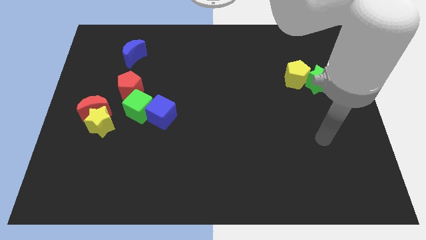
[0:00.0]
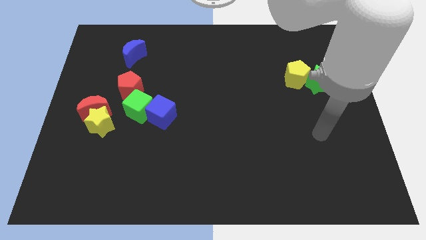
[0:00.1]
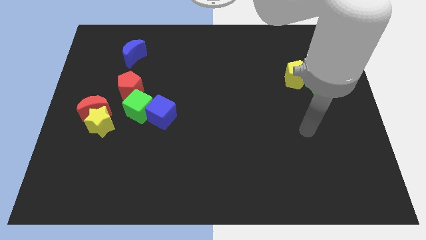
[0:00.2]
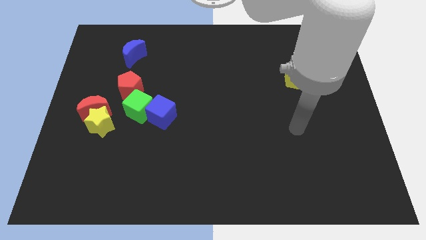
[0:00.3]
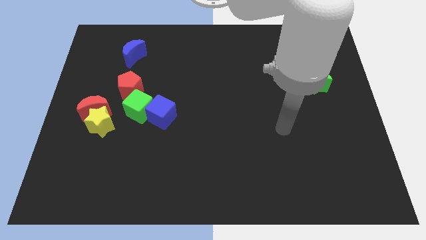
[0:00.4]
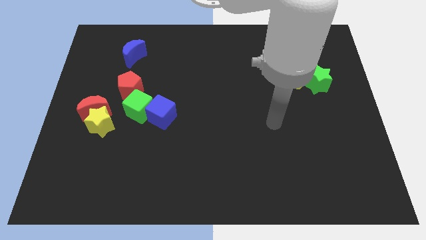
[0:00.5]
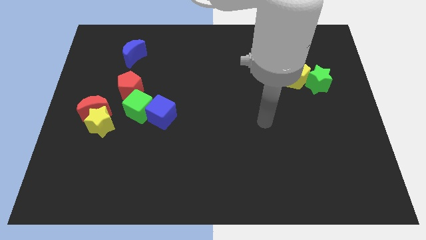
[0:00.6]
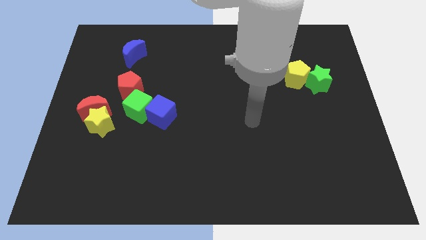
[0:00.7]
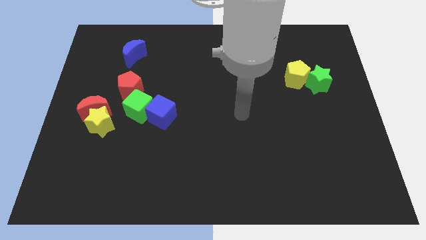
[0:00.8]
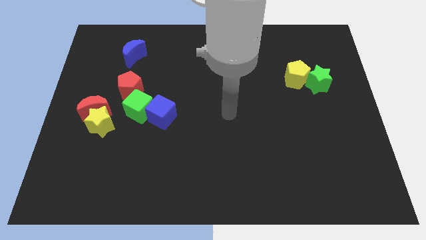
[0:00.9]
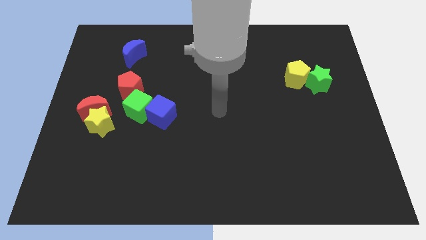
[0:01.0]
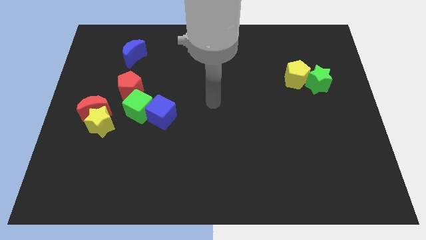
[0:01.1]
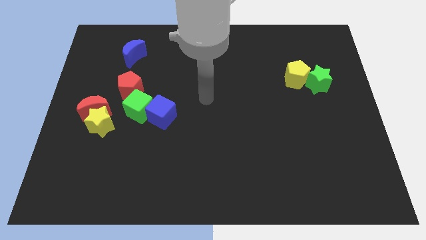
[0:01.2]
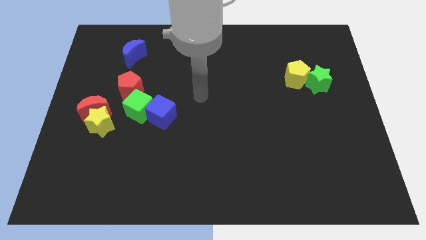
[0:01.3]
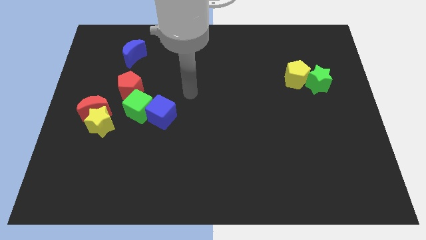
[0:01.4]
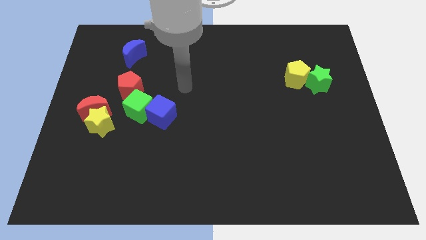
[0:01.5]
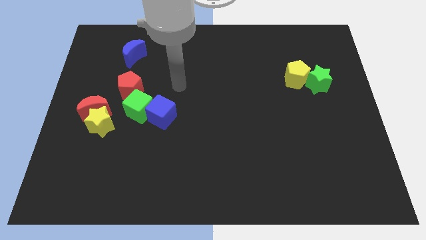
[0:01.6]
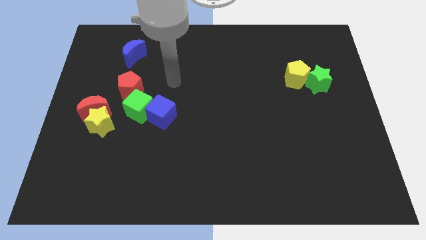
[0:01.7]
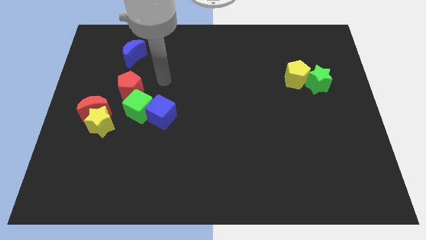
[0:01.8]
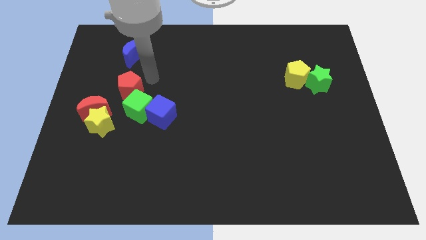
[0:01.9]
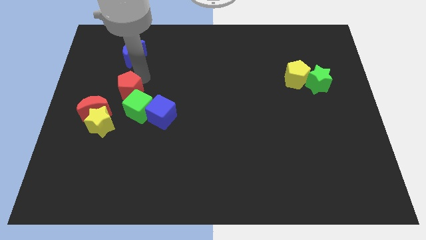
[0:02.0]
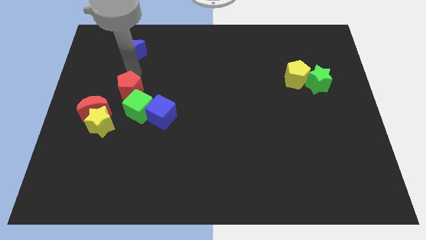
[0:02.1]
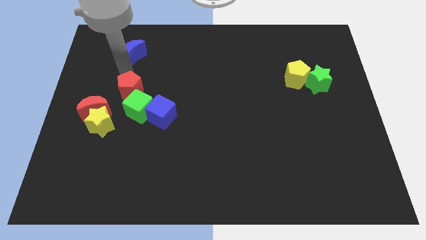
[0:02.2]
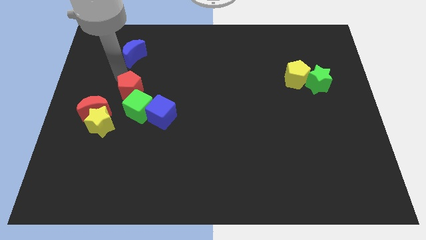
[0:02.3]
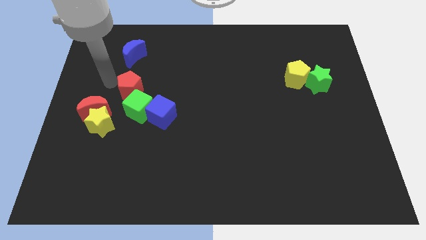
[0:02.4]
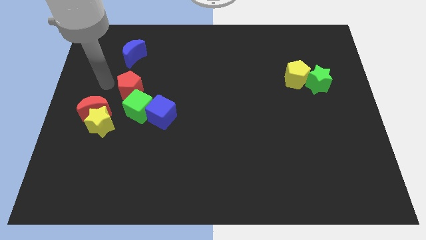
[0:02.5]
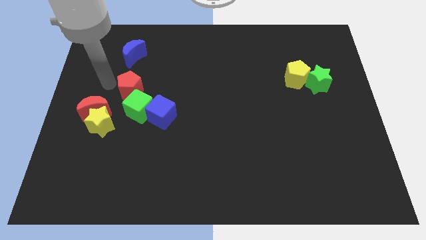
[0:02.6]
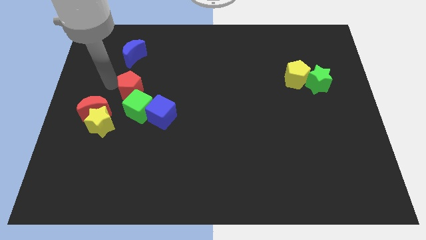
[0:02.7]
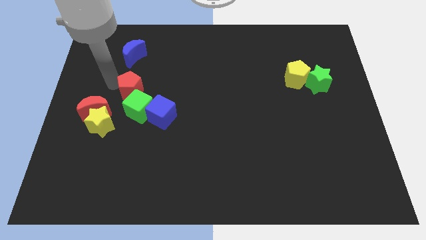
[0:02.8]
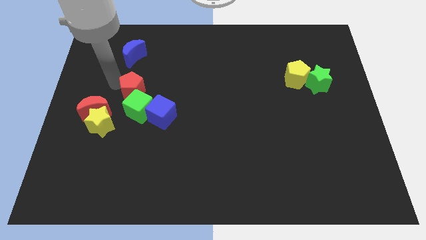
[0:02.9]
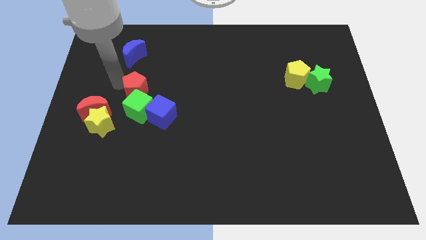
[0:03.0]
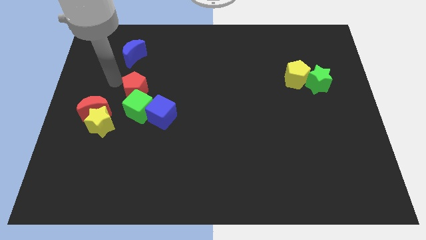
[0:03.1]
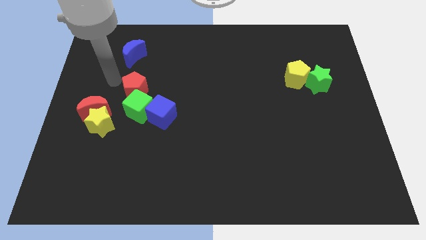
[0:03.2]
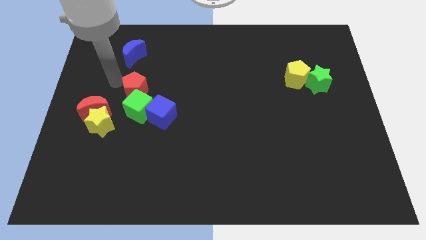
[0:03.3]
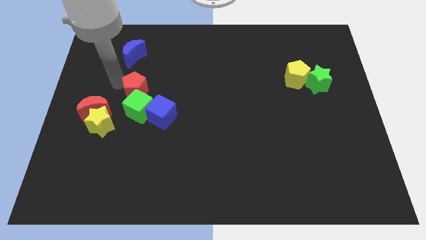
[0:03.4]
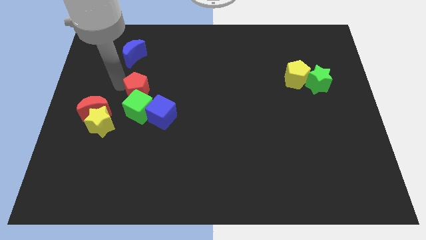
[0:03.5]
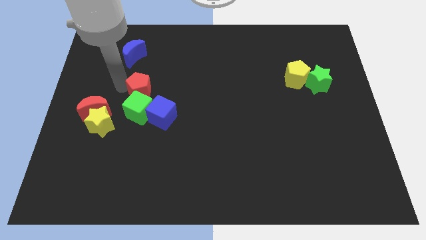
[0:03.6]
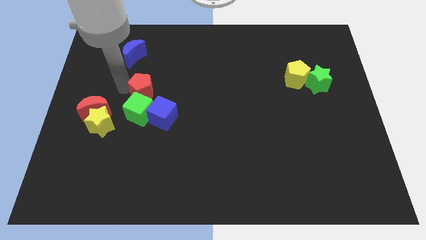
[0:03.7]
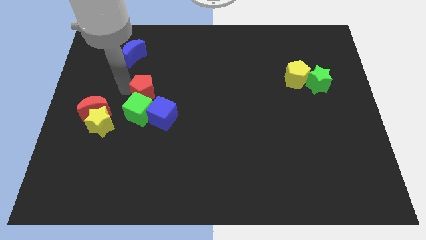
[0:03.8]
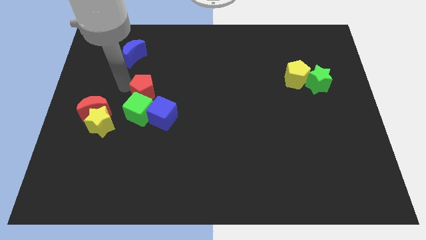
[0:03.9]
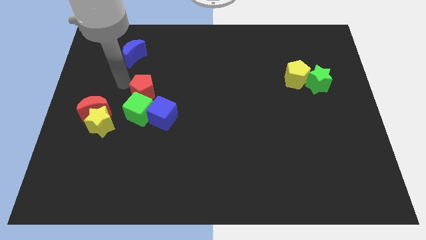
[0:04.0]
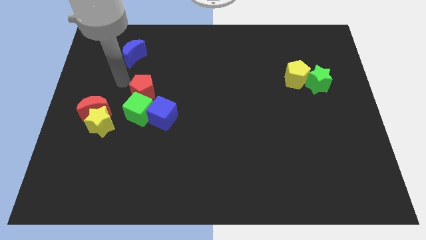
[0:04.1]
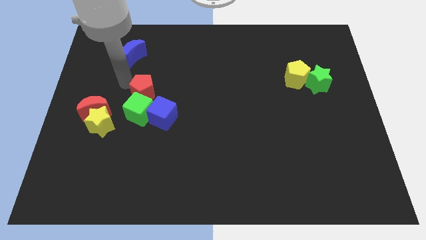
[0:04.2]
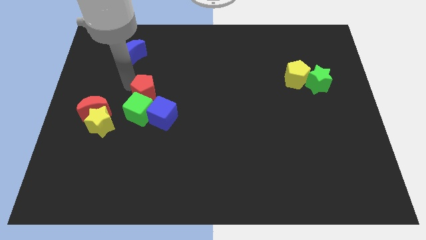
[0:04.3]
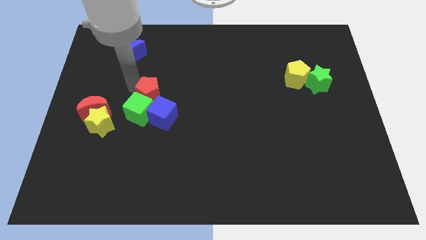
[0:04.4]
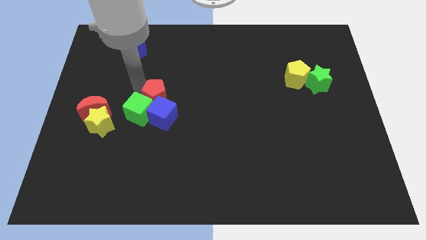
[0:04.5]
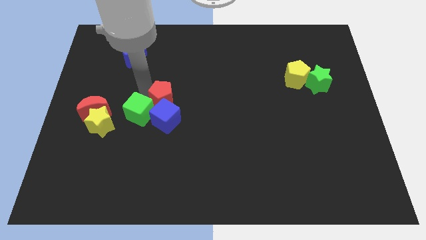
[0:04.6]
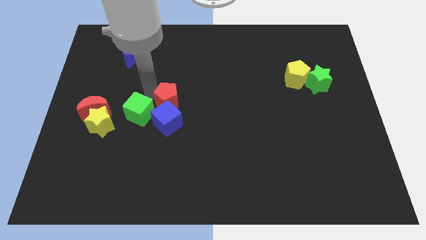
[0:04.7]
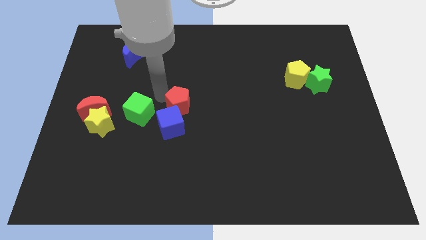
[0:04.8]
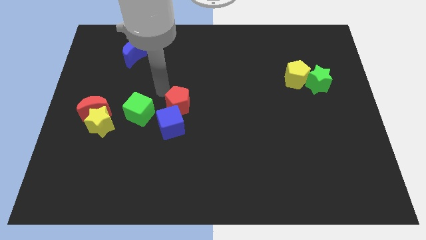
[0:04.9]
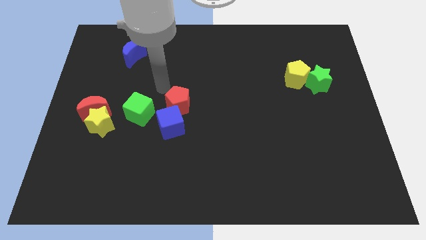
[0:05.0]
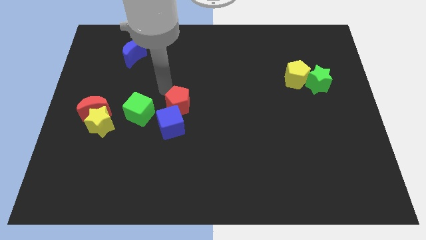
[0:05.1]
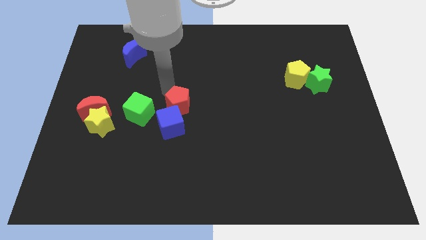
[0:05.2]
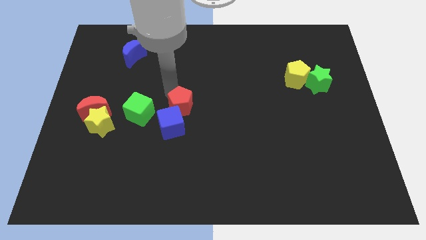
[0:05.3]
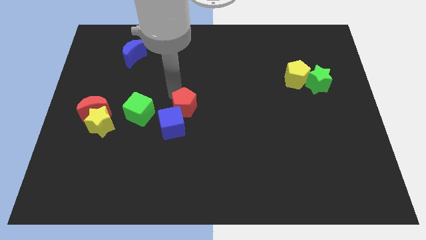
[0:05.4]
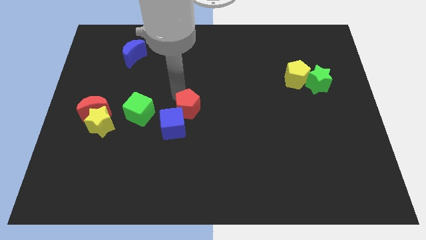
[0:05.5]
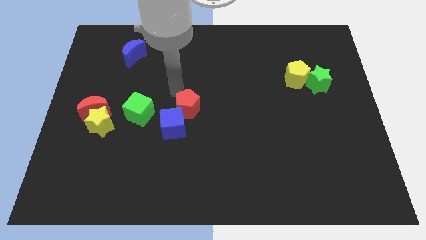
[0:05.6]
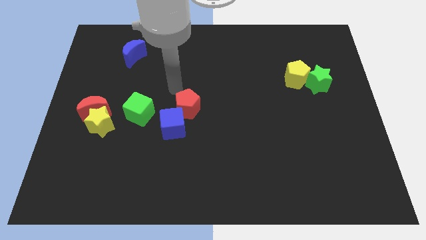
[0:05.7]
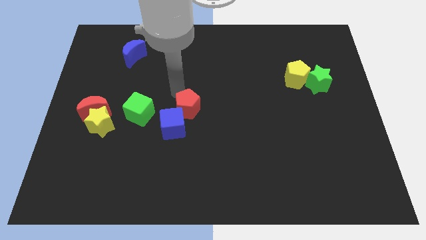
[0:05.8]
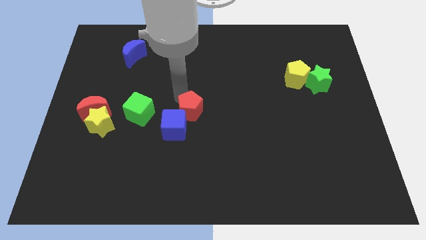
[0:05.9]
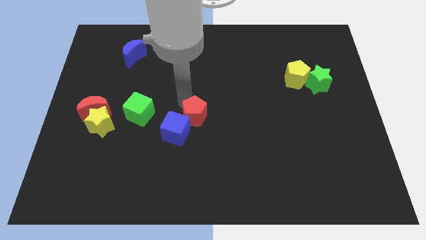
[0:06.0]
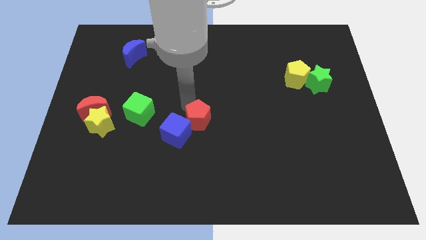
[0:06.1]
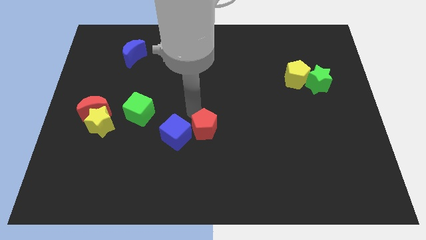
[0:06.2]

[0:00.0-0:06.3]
slide the red pentagon downwards and then to the right

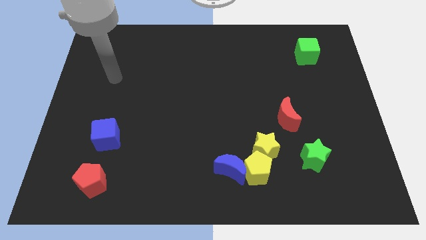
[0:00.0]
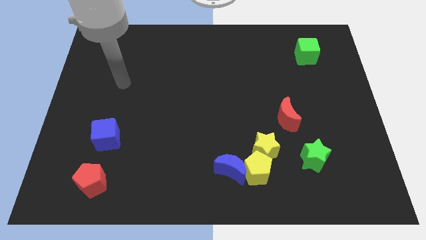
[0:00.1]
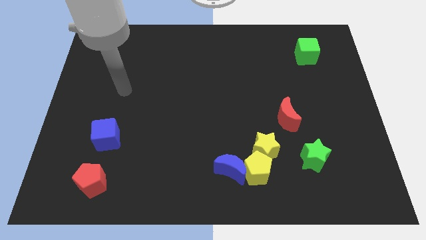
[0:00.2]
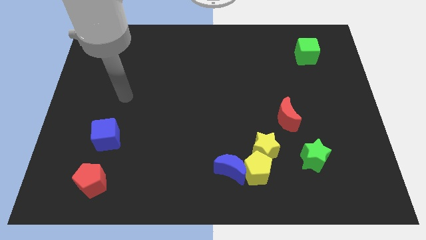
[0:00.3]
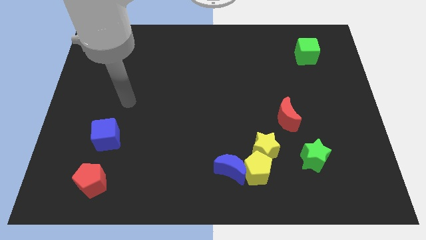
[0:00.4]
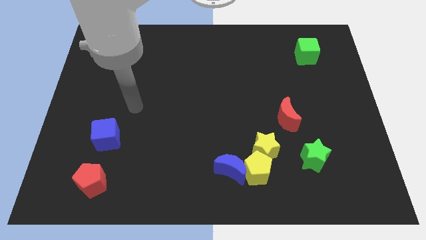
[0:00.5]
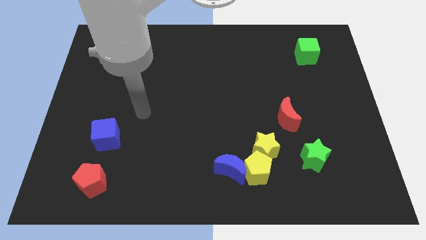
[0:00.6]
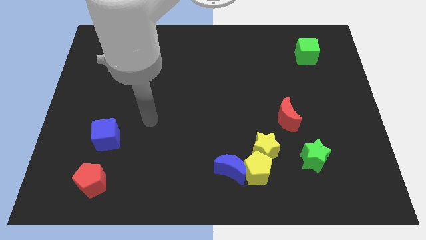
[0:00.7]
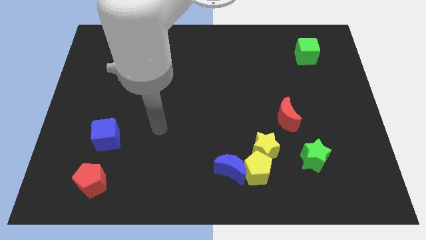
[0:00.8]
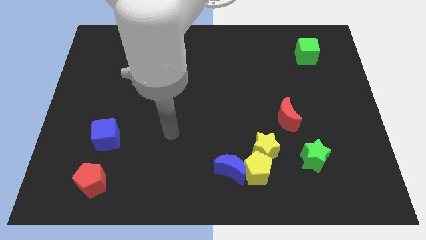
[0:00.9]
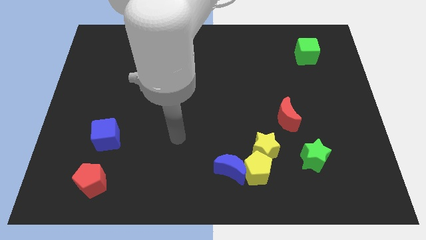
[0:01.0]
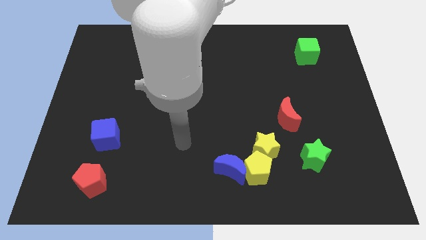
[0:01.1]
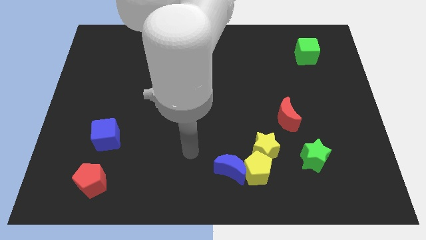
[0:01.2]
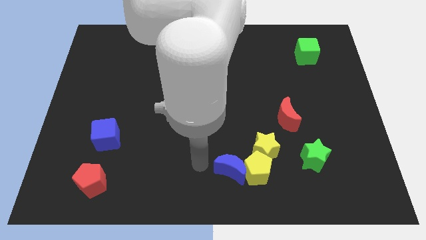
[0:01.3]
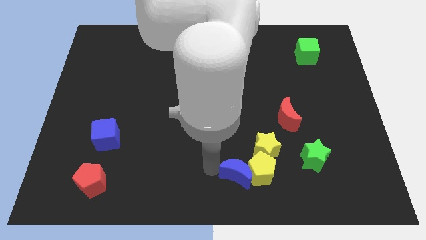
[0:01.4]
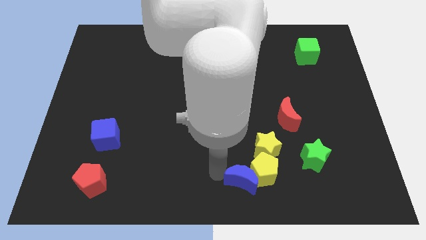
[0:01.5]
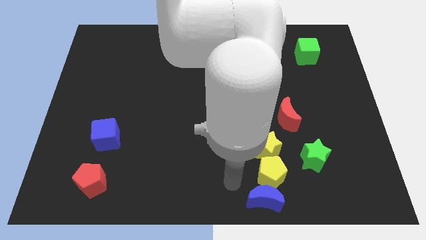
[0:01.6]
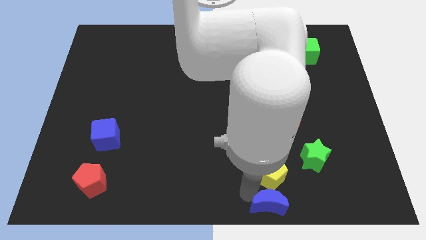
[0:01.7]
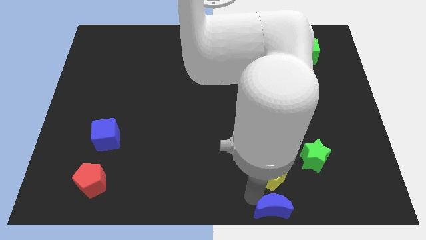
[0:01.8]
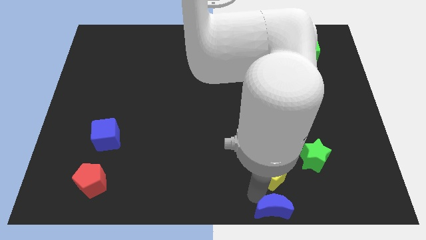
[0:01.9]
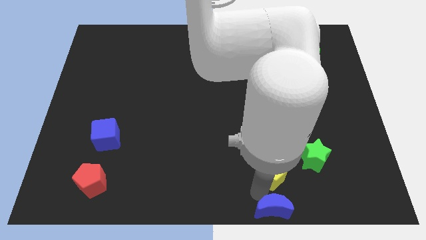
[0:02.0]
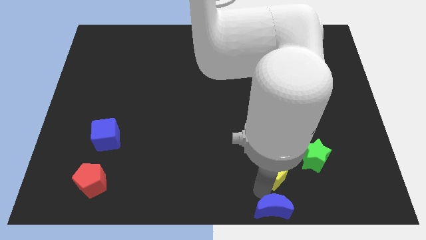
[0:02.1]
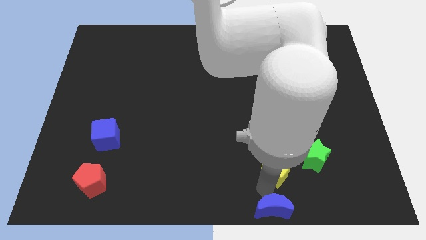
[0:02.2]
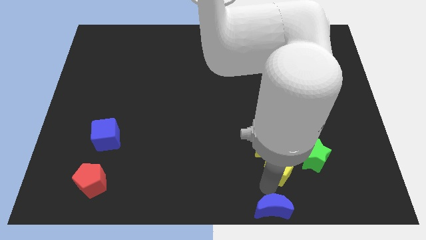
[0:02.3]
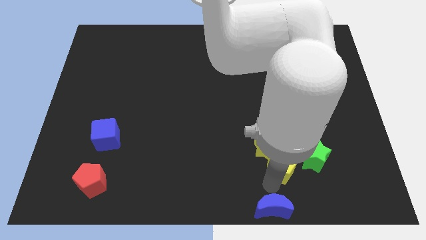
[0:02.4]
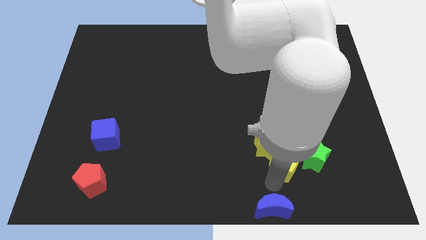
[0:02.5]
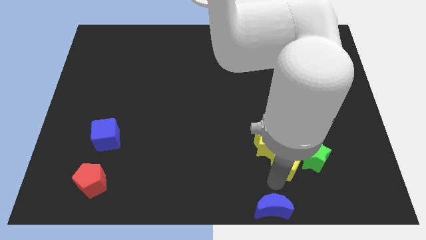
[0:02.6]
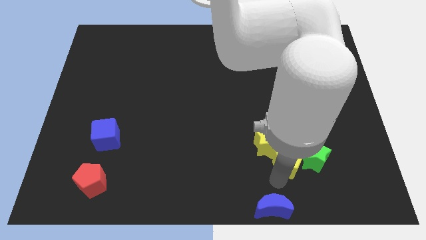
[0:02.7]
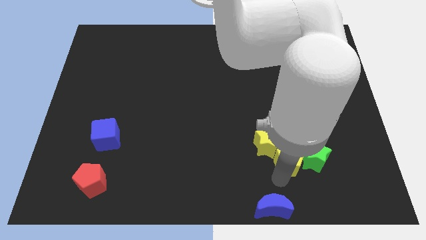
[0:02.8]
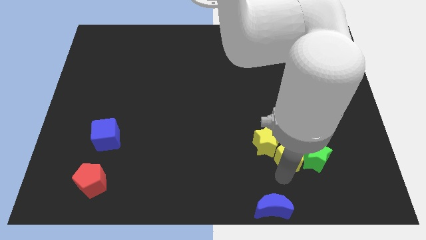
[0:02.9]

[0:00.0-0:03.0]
slightly move the yellow pentagon diagonally upwards and to the right
